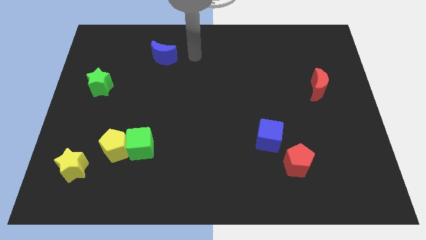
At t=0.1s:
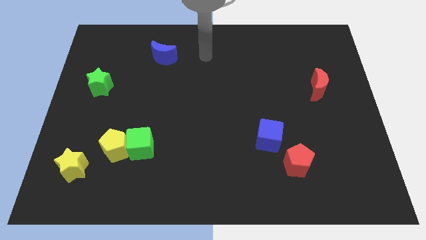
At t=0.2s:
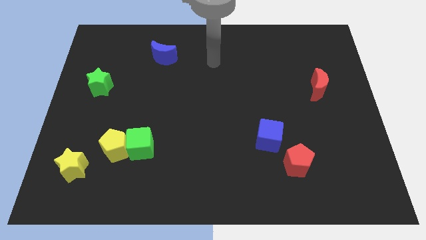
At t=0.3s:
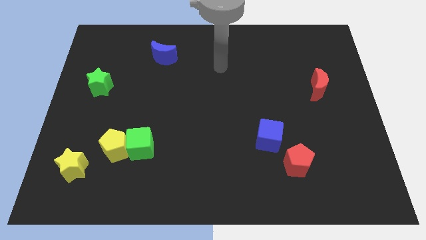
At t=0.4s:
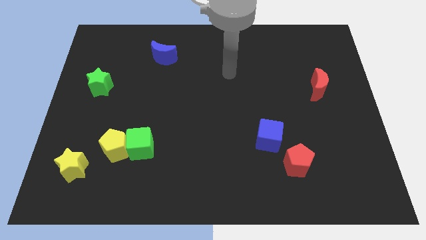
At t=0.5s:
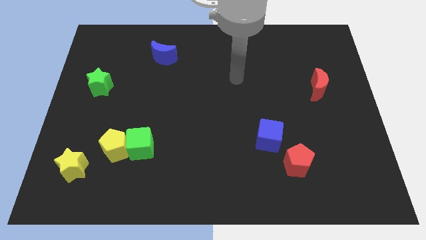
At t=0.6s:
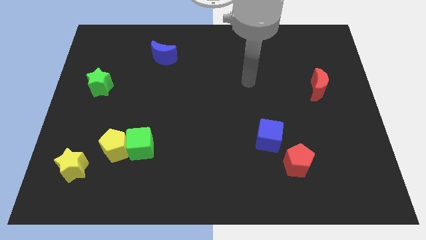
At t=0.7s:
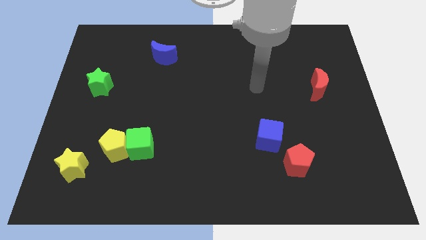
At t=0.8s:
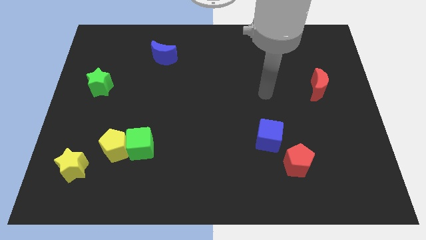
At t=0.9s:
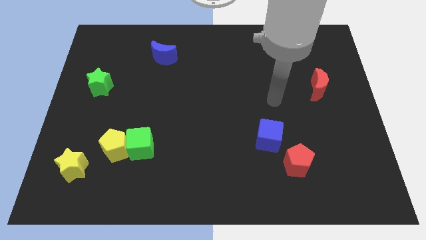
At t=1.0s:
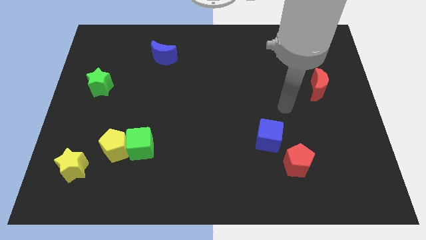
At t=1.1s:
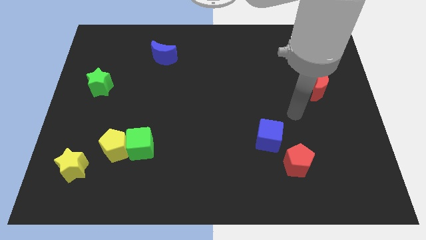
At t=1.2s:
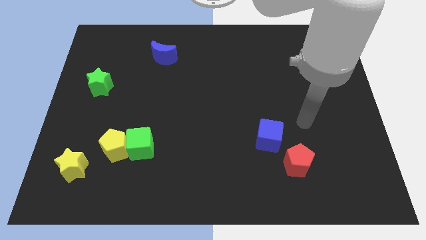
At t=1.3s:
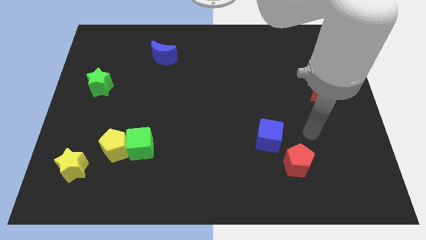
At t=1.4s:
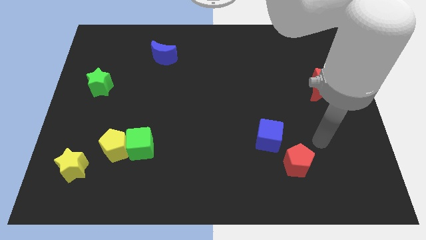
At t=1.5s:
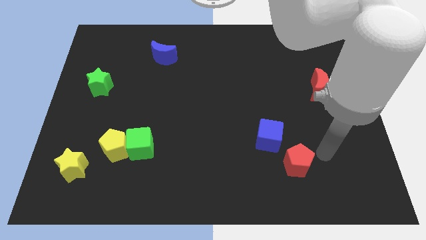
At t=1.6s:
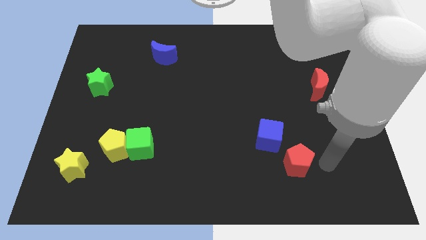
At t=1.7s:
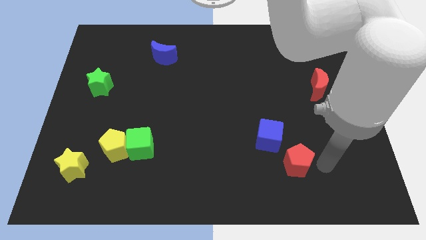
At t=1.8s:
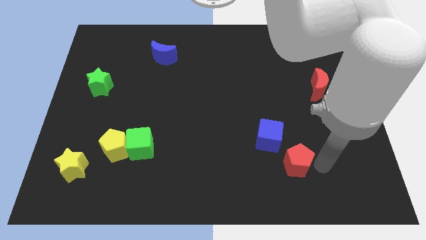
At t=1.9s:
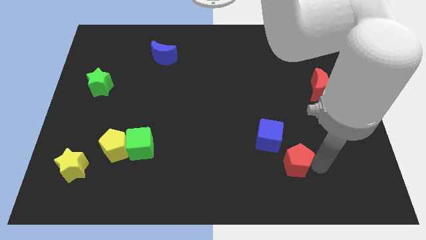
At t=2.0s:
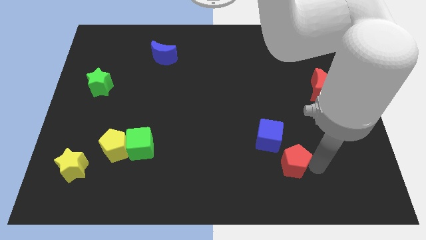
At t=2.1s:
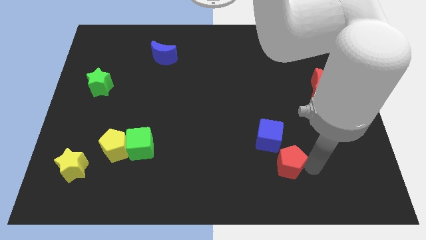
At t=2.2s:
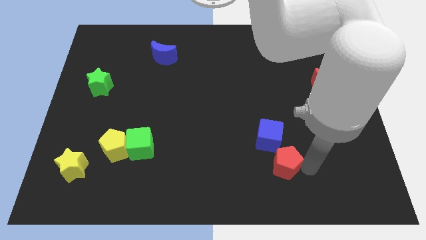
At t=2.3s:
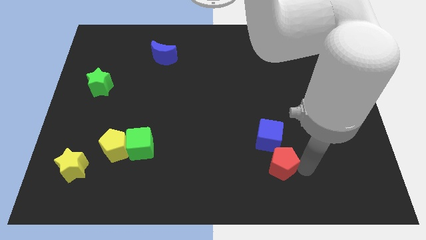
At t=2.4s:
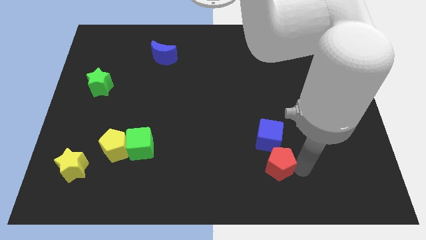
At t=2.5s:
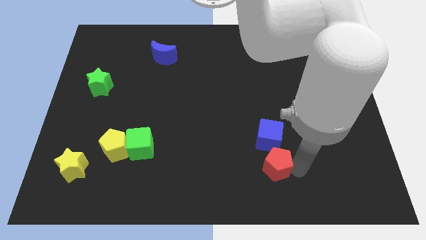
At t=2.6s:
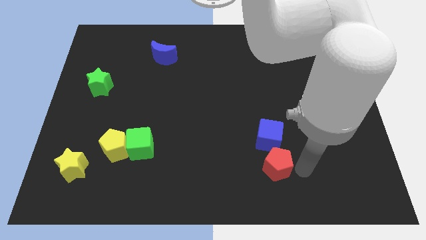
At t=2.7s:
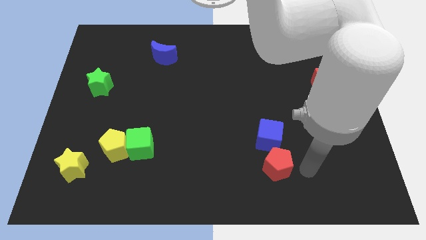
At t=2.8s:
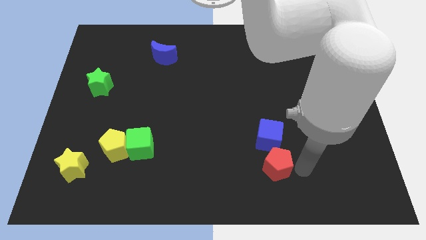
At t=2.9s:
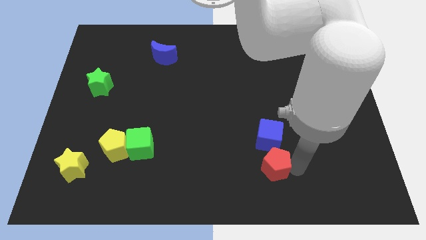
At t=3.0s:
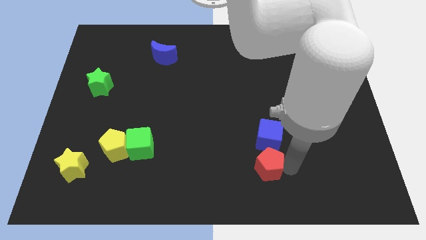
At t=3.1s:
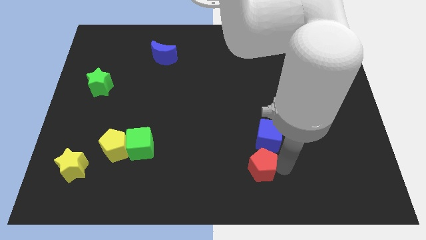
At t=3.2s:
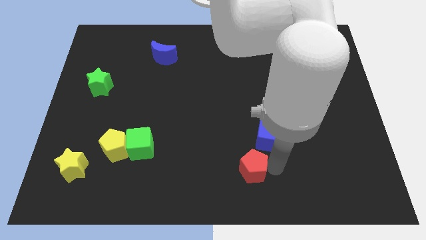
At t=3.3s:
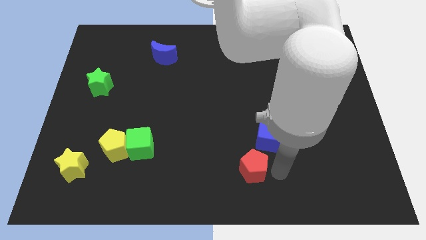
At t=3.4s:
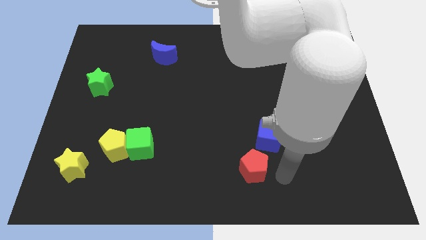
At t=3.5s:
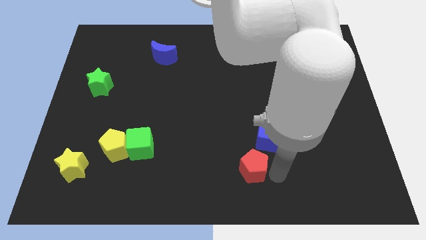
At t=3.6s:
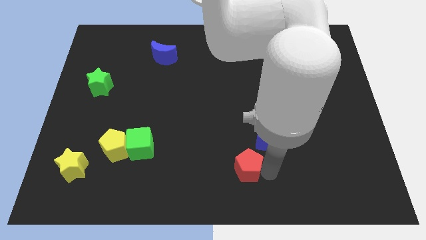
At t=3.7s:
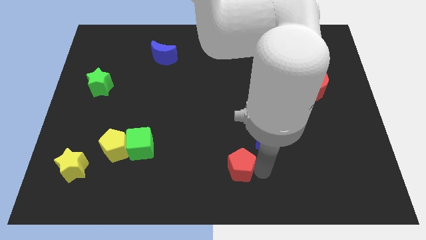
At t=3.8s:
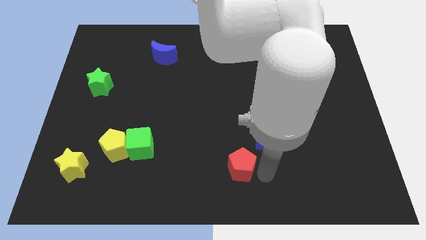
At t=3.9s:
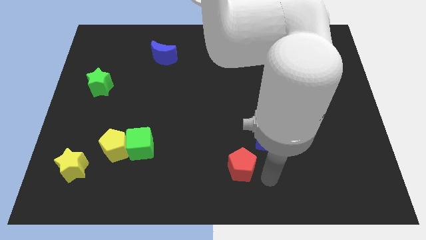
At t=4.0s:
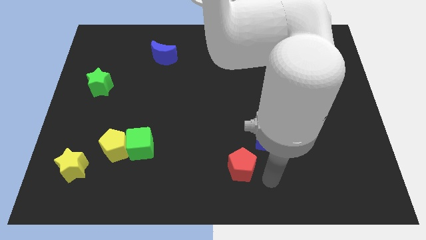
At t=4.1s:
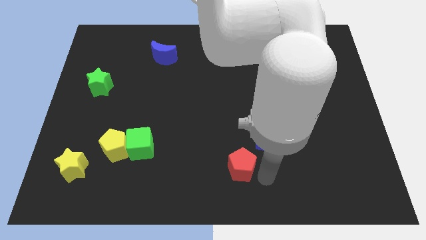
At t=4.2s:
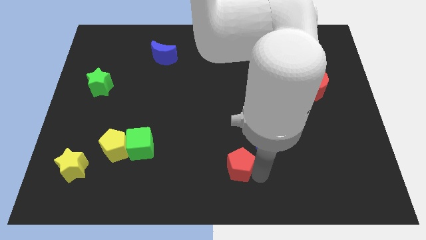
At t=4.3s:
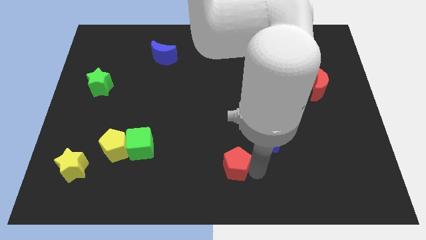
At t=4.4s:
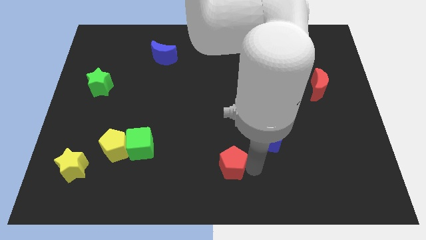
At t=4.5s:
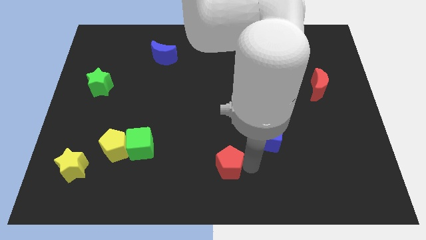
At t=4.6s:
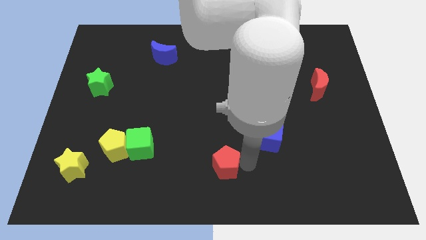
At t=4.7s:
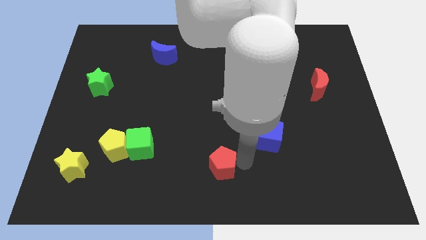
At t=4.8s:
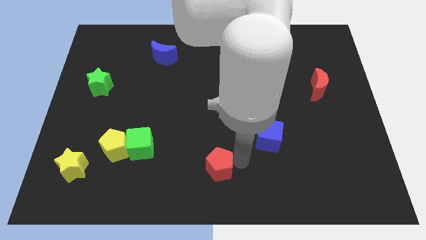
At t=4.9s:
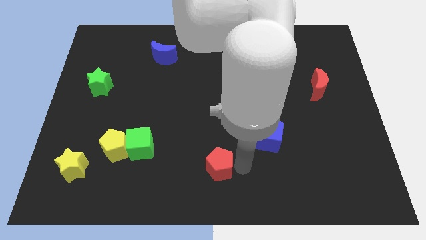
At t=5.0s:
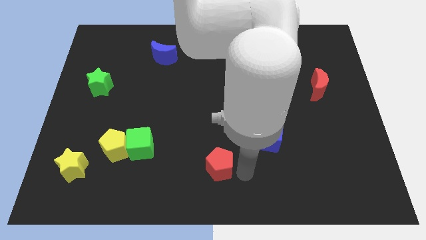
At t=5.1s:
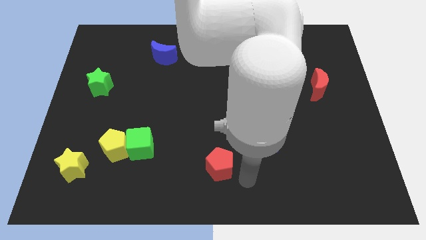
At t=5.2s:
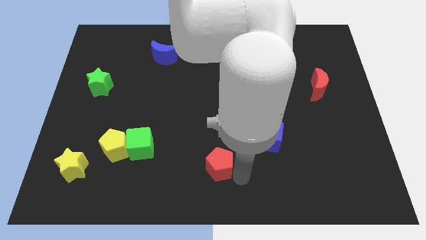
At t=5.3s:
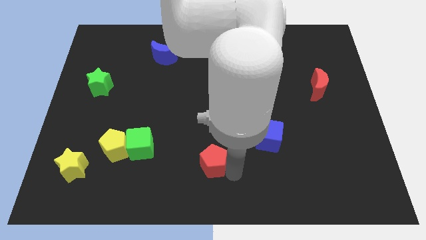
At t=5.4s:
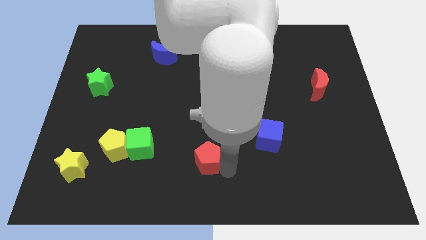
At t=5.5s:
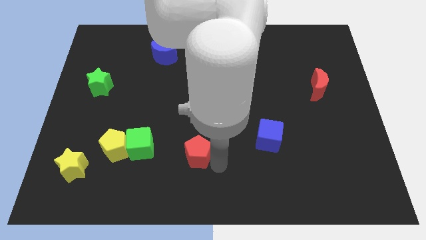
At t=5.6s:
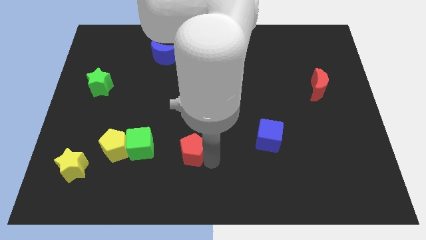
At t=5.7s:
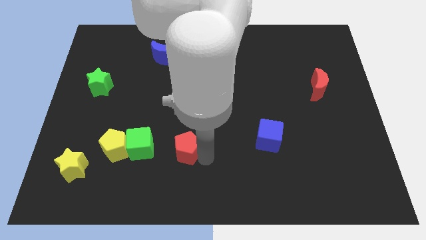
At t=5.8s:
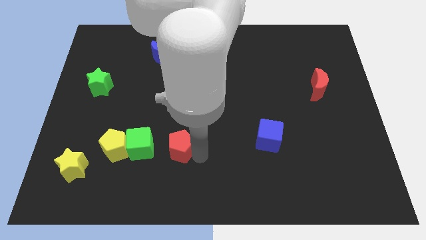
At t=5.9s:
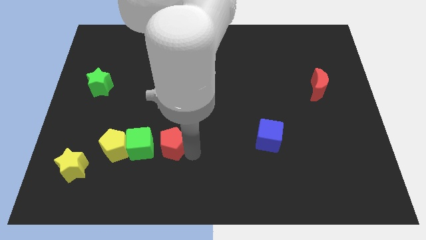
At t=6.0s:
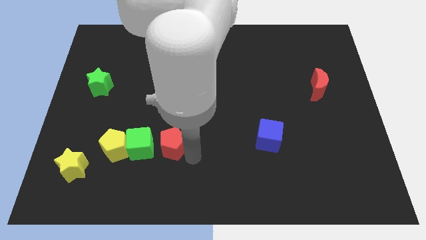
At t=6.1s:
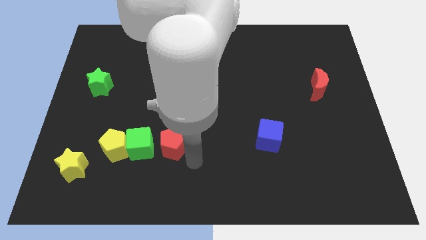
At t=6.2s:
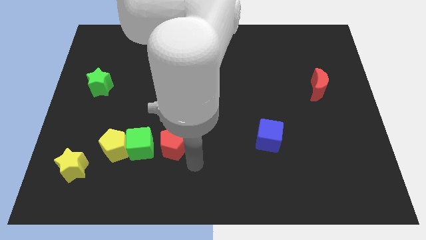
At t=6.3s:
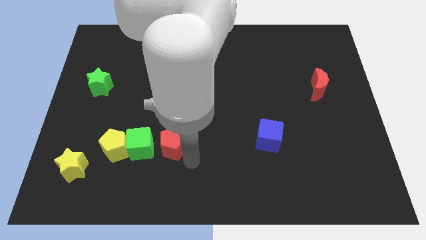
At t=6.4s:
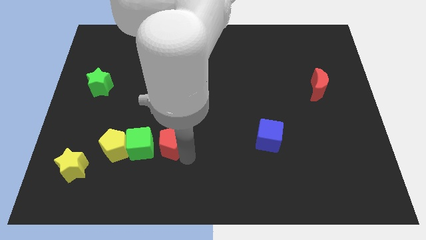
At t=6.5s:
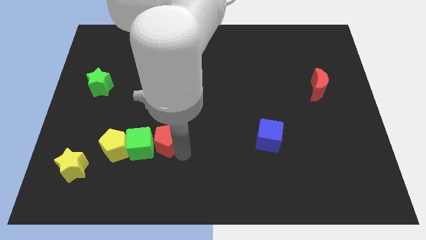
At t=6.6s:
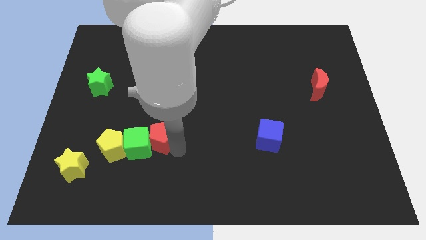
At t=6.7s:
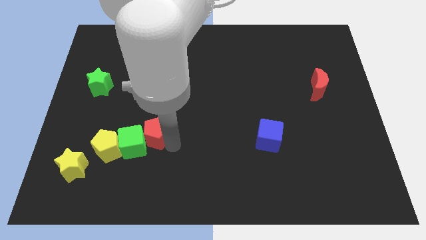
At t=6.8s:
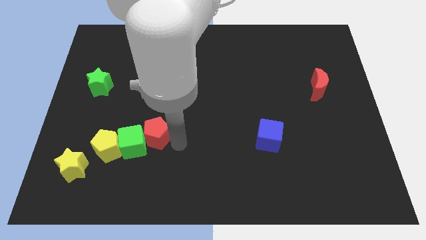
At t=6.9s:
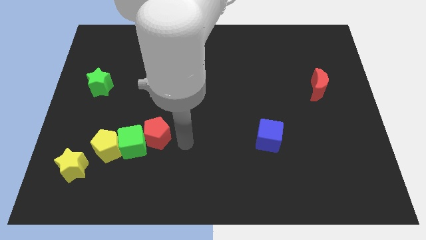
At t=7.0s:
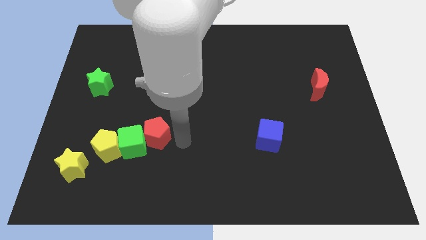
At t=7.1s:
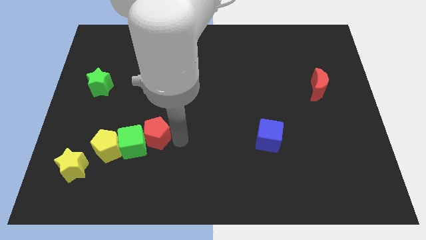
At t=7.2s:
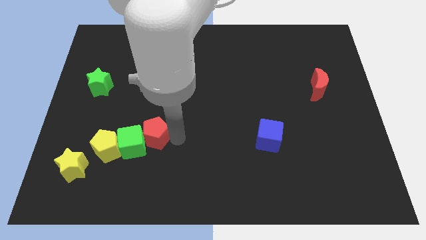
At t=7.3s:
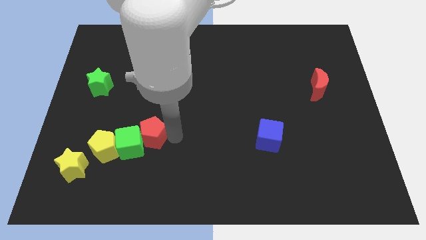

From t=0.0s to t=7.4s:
slide the red pentagon to the top right of the yellow pentagon

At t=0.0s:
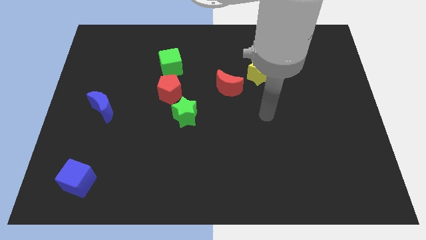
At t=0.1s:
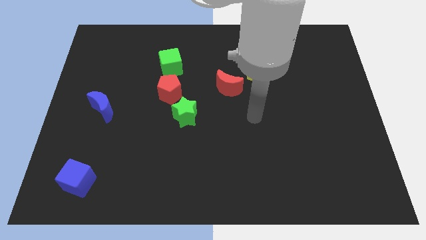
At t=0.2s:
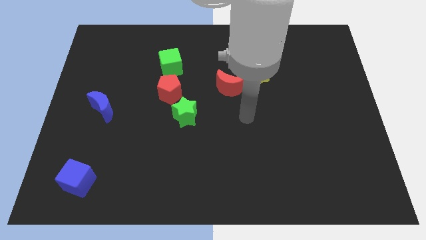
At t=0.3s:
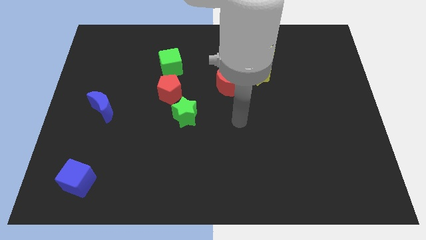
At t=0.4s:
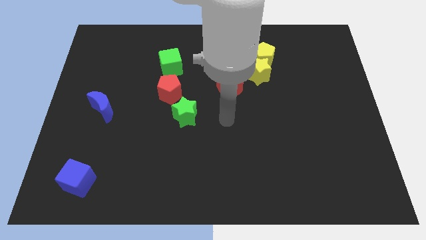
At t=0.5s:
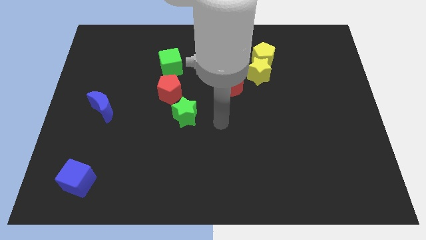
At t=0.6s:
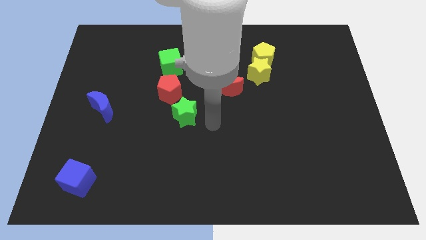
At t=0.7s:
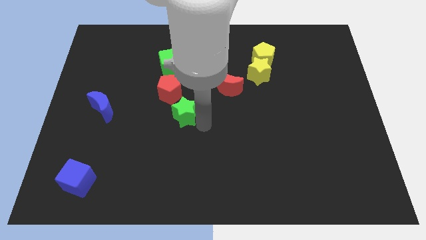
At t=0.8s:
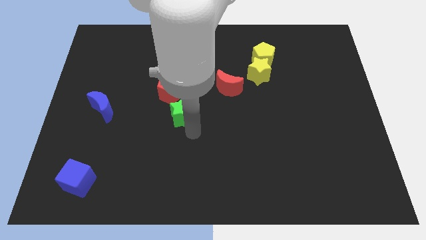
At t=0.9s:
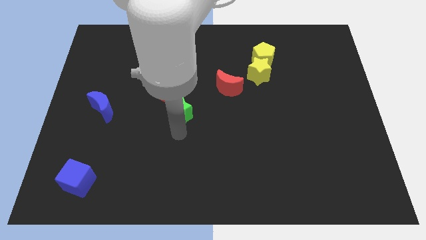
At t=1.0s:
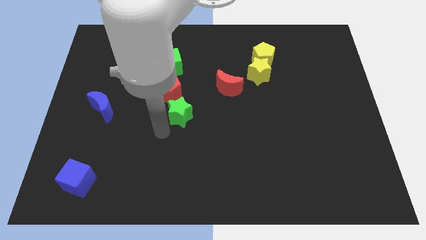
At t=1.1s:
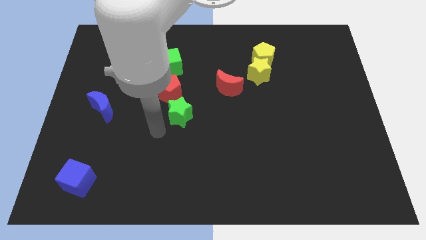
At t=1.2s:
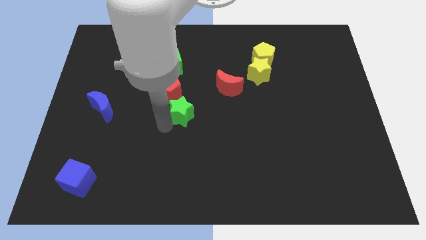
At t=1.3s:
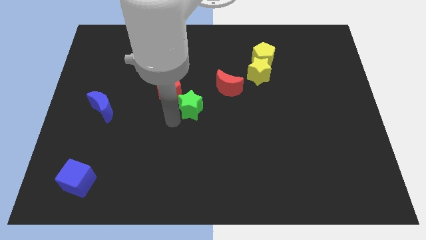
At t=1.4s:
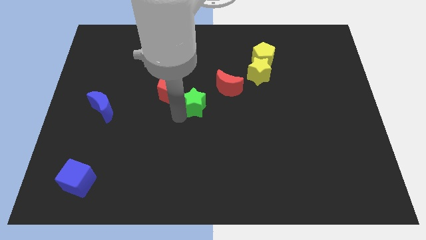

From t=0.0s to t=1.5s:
move the green star right of the red pentagon
